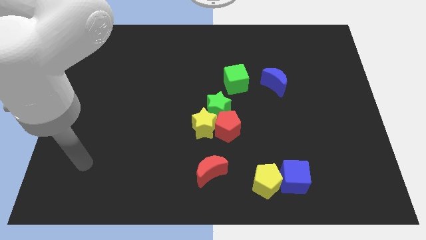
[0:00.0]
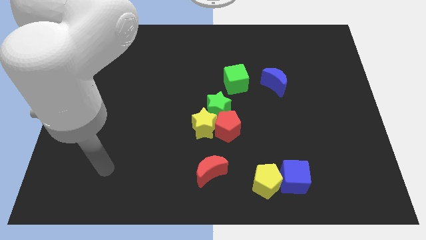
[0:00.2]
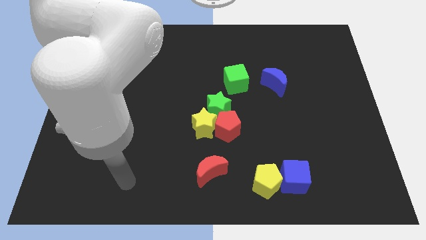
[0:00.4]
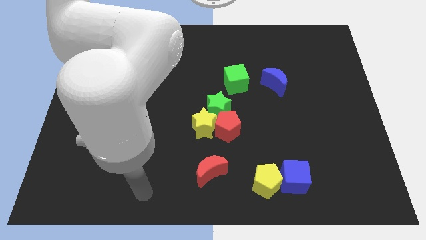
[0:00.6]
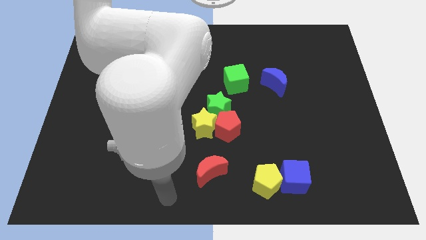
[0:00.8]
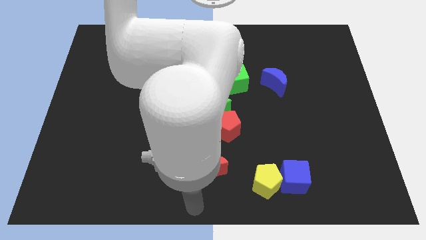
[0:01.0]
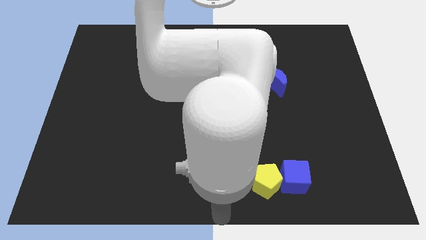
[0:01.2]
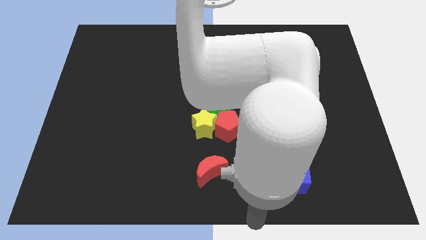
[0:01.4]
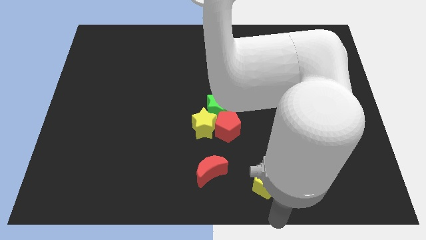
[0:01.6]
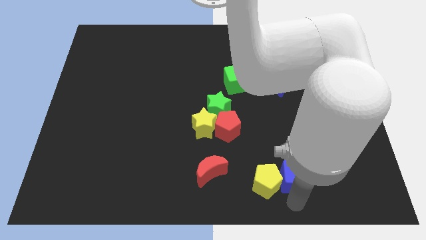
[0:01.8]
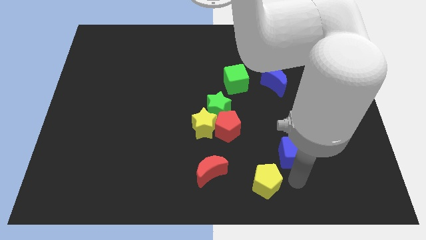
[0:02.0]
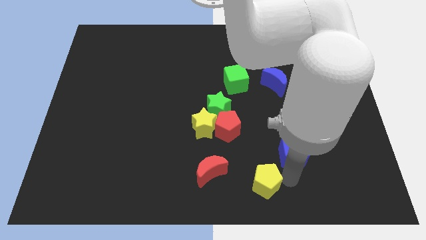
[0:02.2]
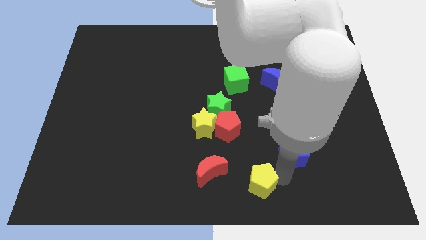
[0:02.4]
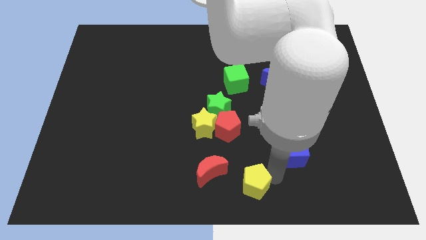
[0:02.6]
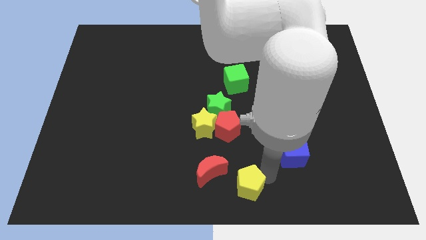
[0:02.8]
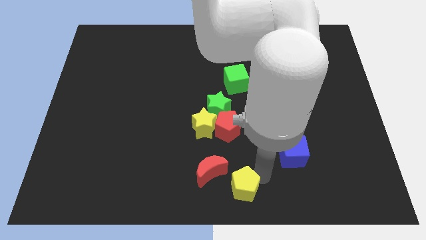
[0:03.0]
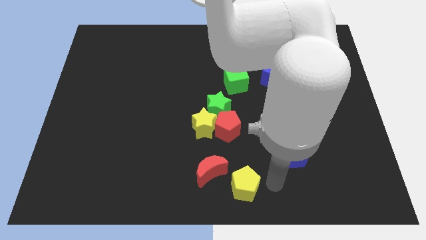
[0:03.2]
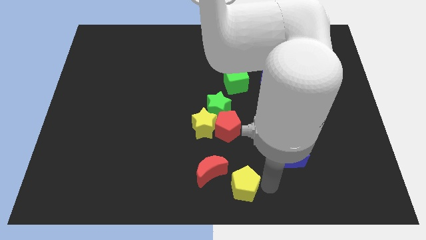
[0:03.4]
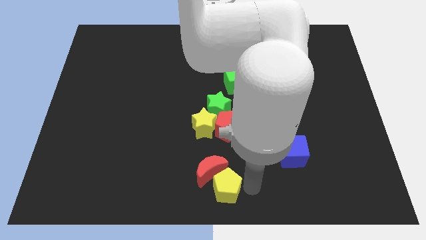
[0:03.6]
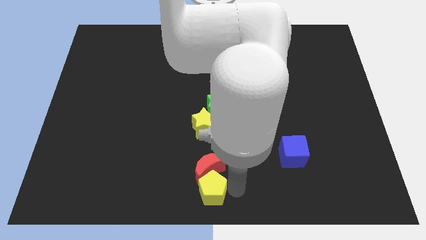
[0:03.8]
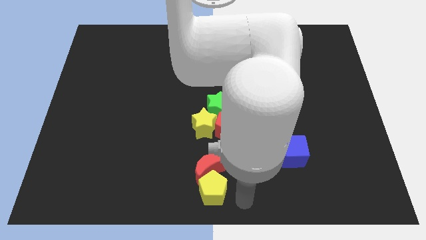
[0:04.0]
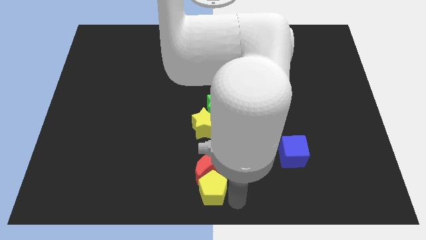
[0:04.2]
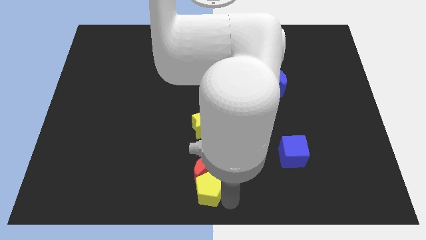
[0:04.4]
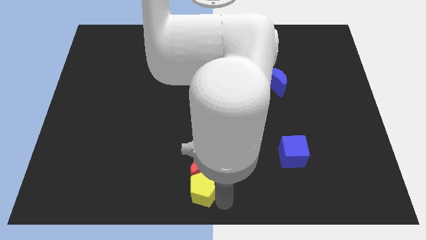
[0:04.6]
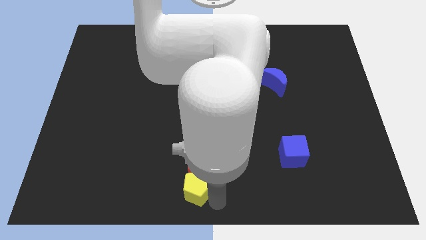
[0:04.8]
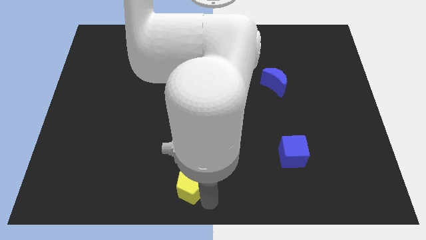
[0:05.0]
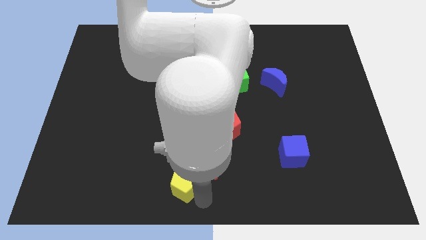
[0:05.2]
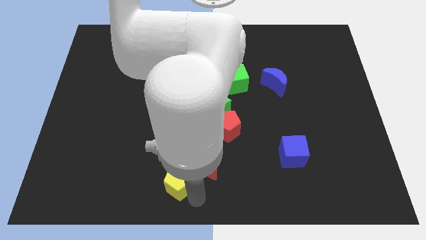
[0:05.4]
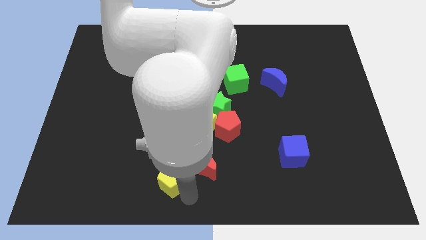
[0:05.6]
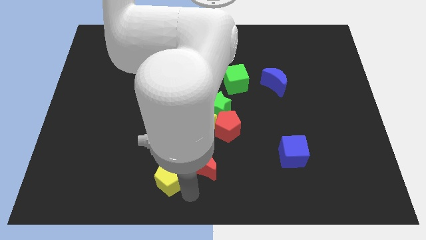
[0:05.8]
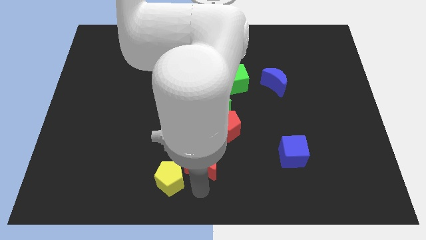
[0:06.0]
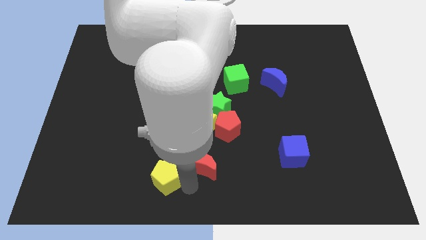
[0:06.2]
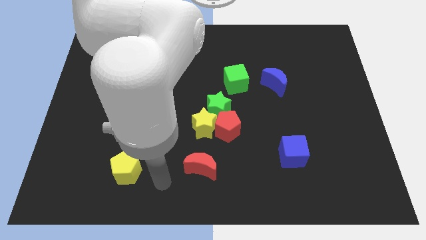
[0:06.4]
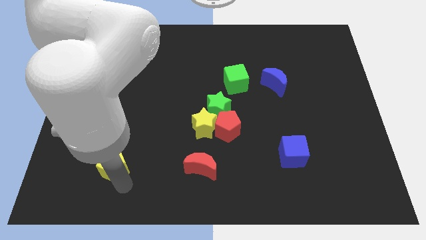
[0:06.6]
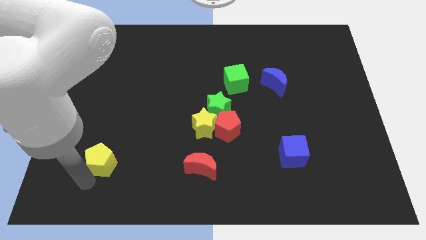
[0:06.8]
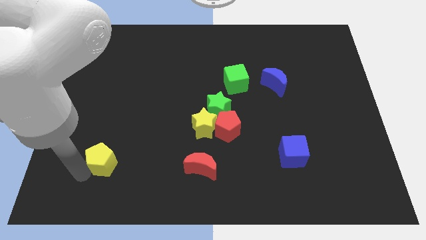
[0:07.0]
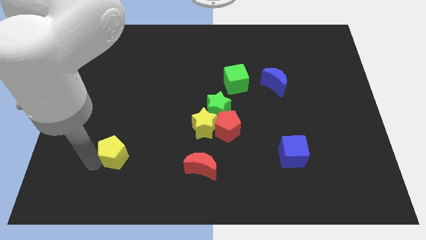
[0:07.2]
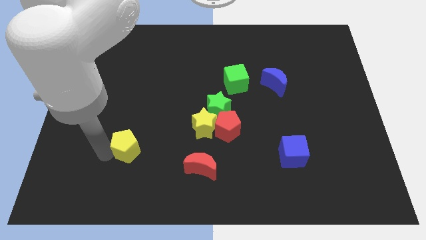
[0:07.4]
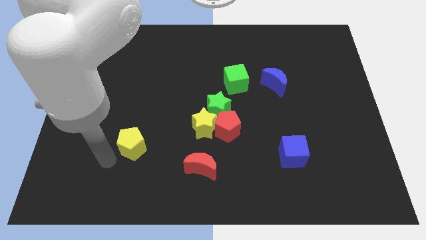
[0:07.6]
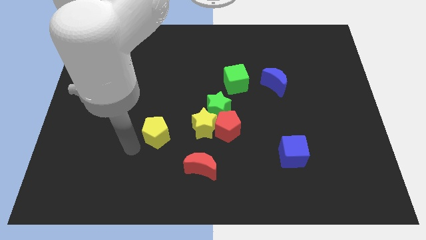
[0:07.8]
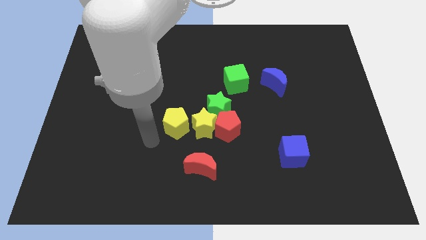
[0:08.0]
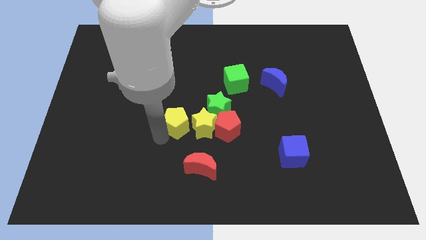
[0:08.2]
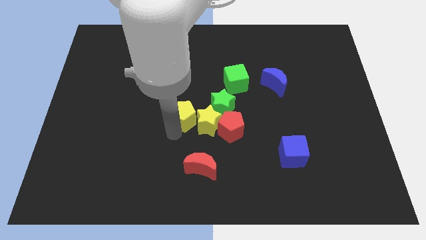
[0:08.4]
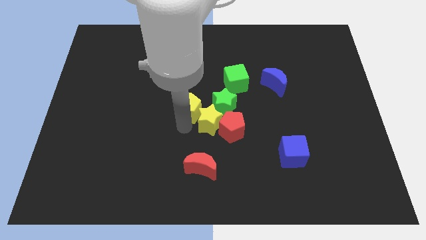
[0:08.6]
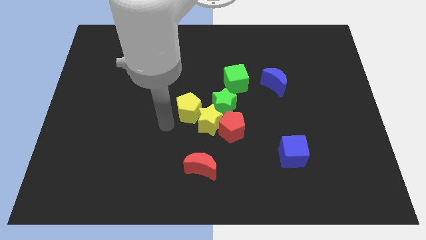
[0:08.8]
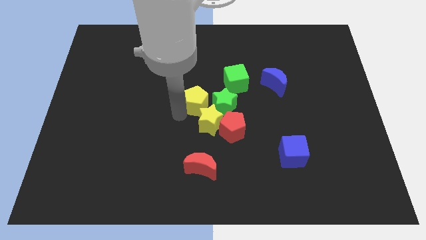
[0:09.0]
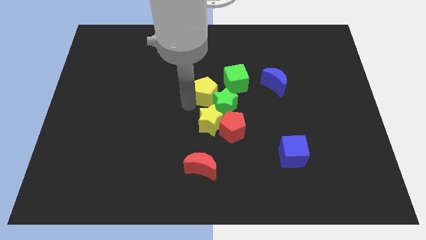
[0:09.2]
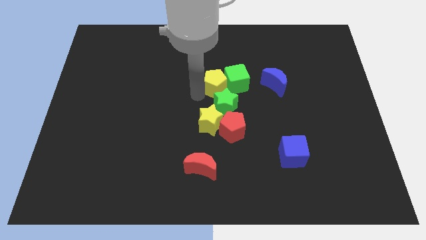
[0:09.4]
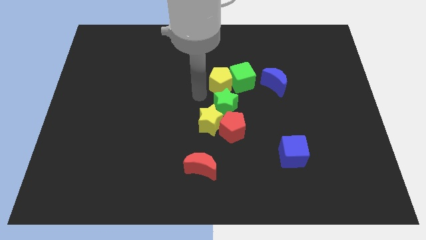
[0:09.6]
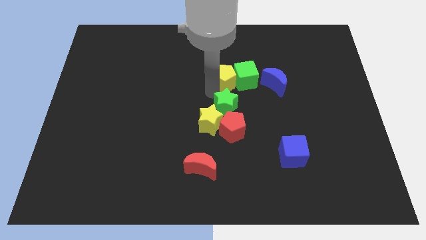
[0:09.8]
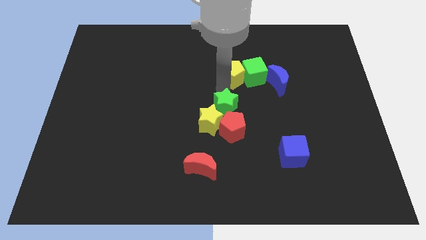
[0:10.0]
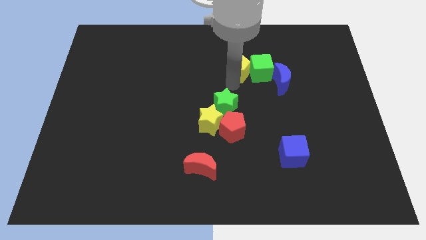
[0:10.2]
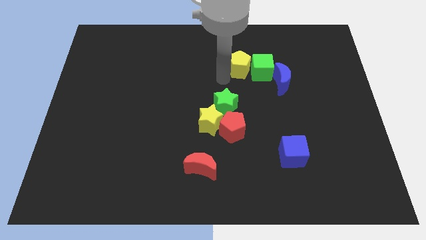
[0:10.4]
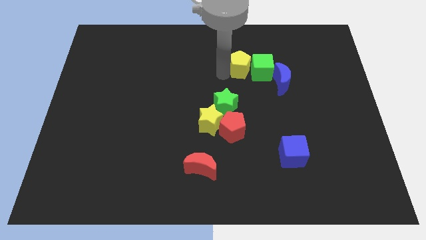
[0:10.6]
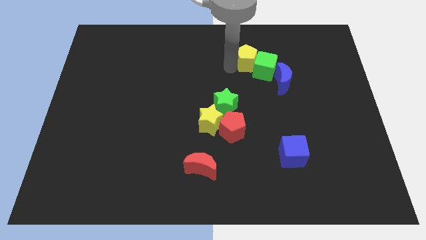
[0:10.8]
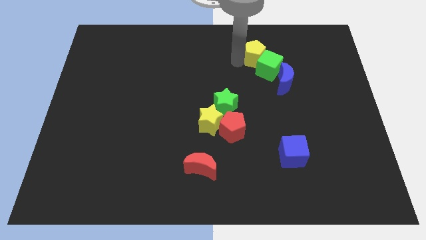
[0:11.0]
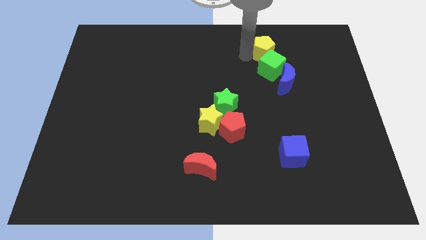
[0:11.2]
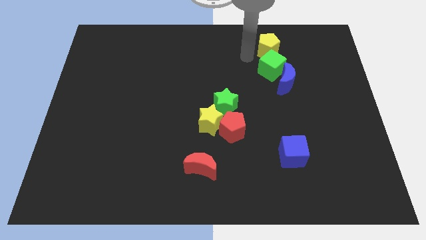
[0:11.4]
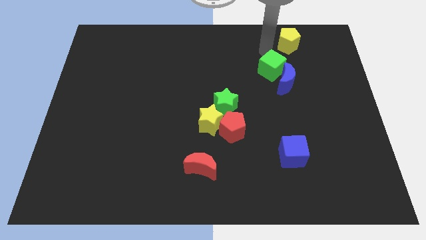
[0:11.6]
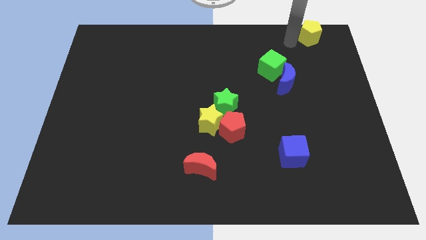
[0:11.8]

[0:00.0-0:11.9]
move the yellow pentagon to the upper right corner

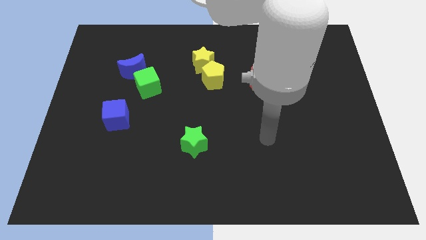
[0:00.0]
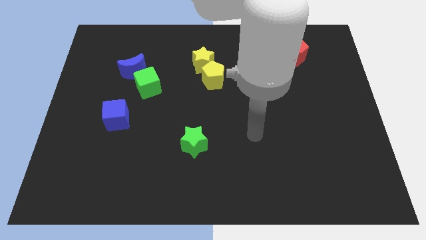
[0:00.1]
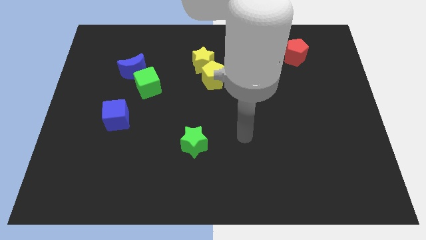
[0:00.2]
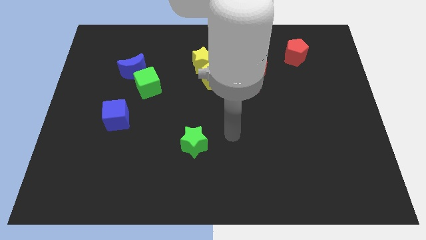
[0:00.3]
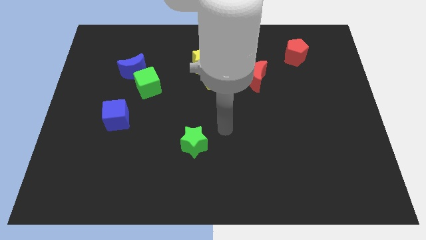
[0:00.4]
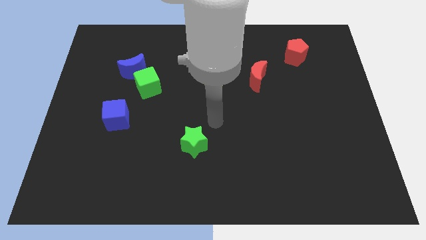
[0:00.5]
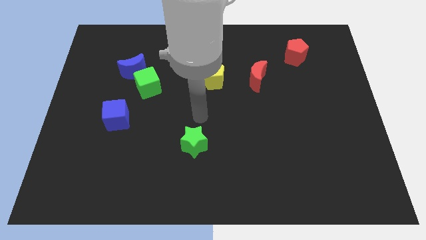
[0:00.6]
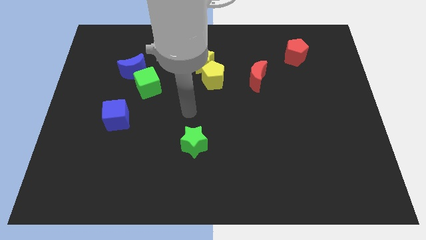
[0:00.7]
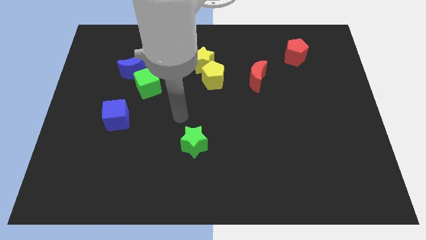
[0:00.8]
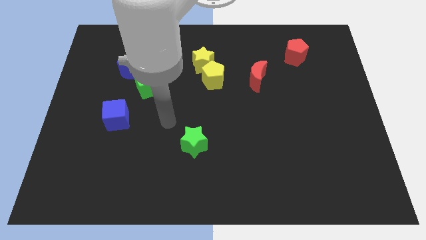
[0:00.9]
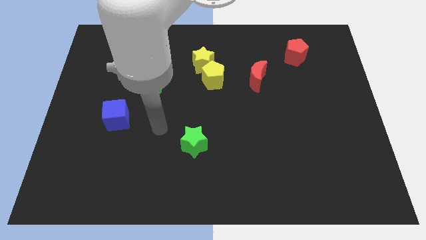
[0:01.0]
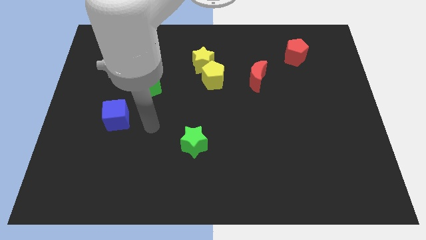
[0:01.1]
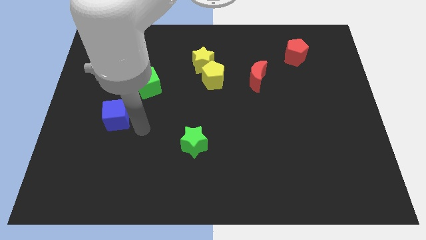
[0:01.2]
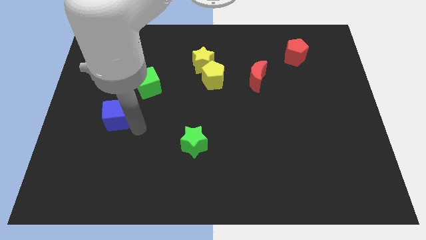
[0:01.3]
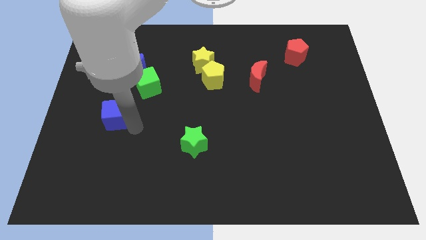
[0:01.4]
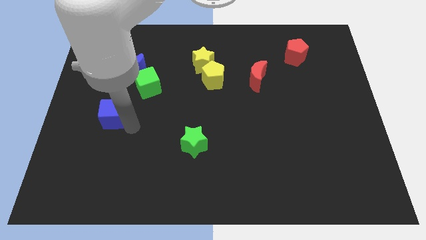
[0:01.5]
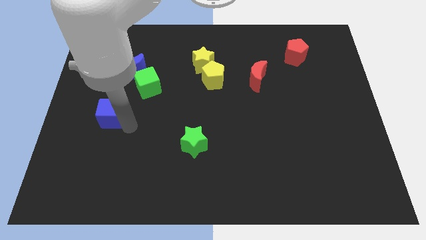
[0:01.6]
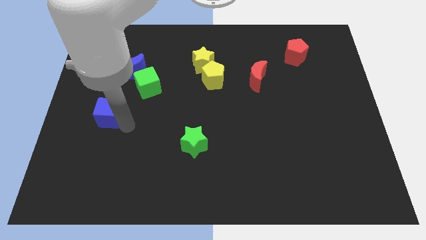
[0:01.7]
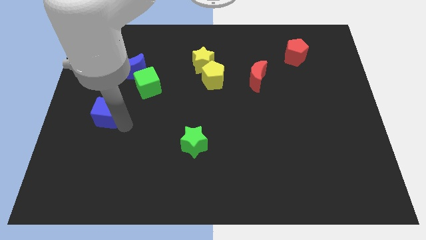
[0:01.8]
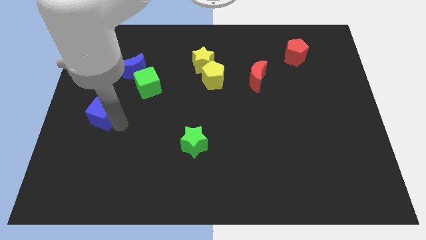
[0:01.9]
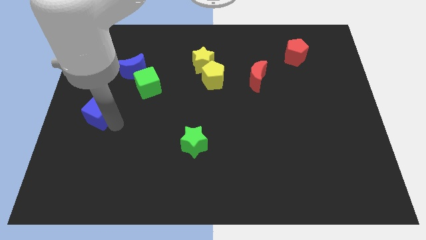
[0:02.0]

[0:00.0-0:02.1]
push the blue cube to the center left
